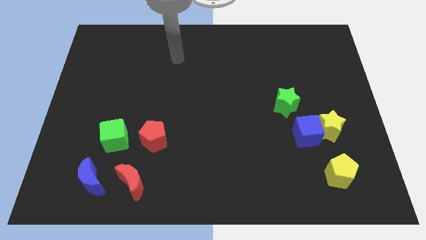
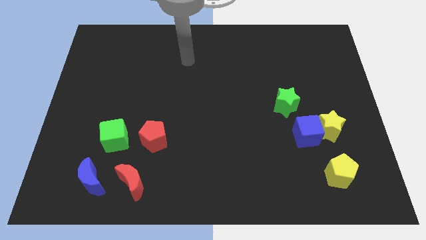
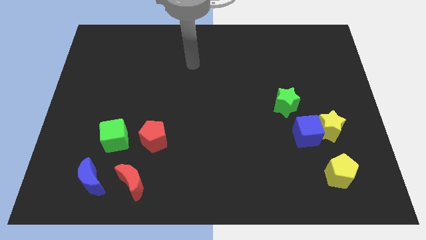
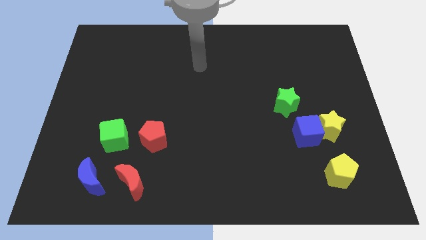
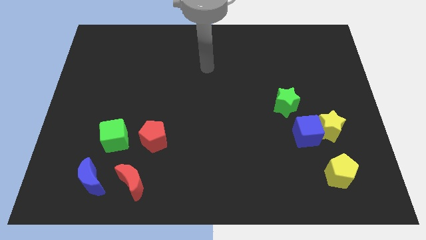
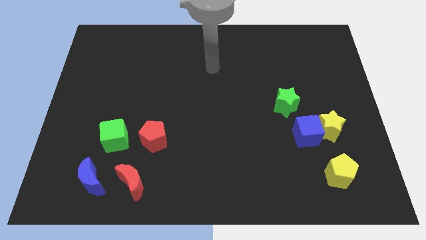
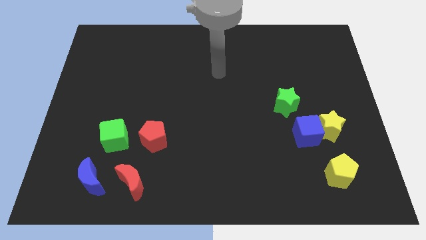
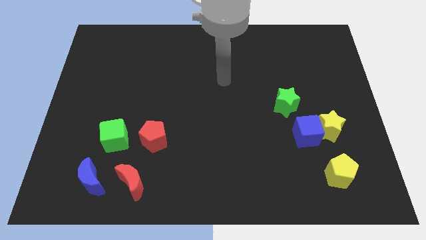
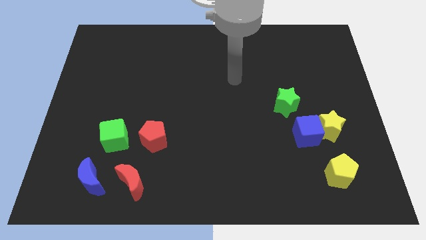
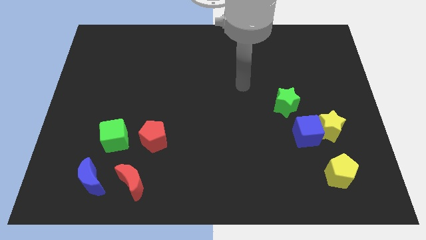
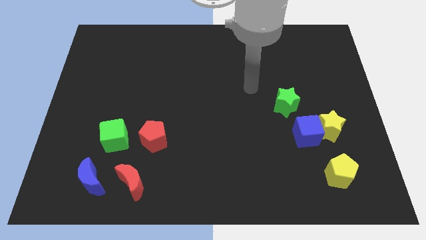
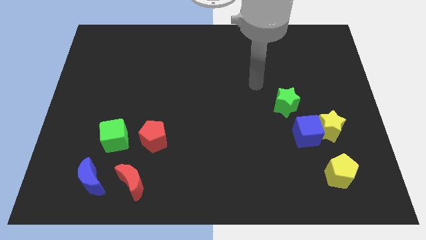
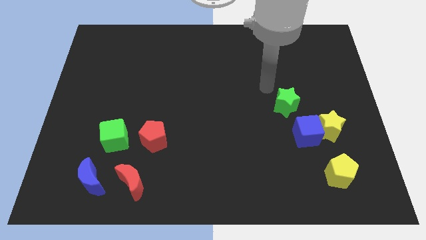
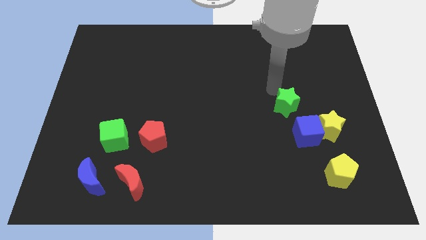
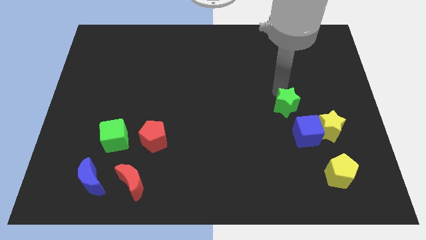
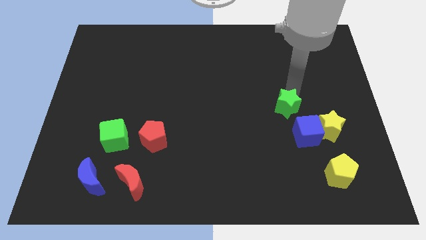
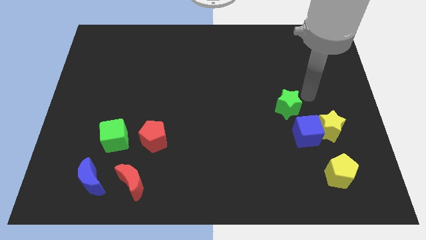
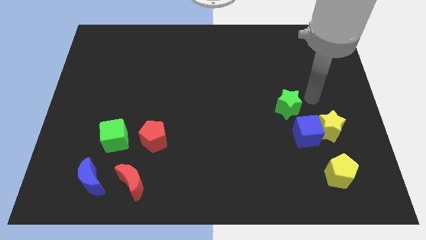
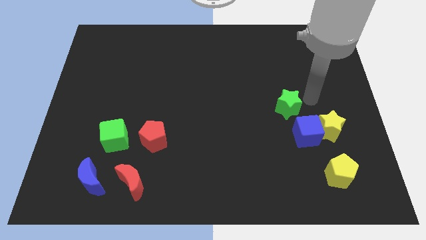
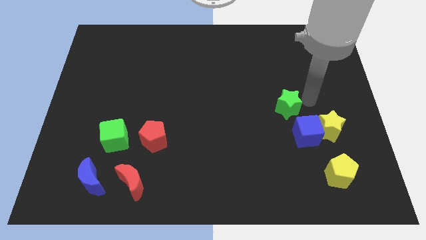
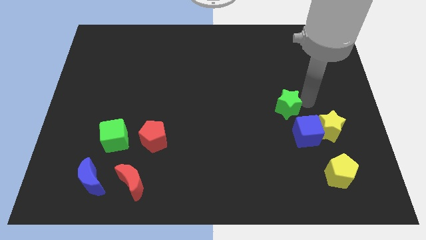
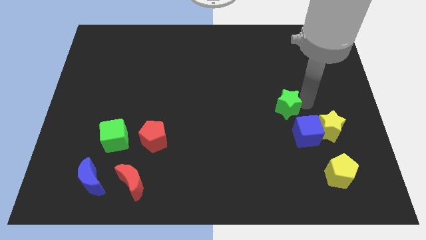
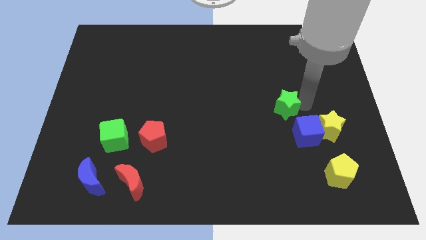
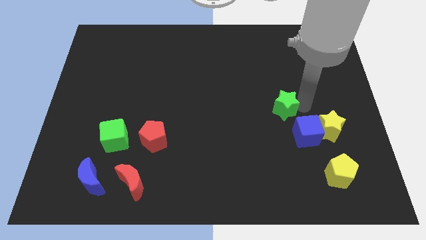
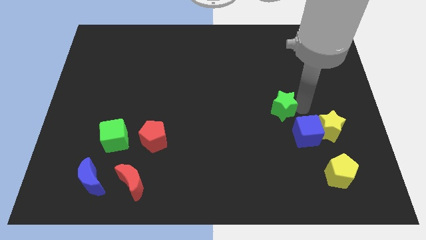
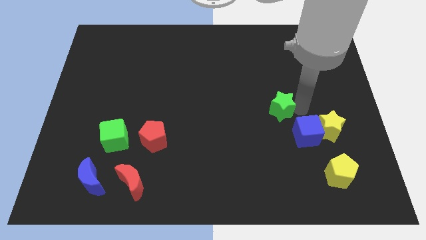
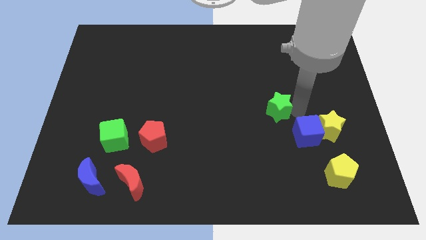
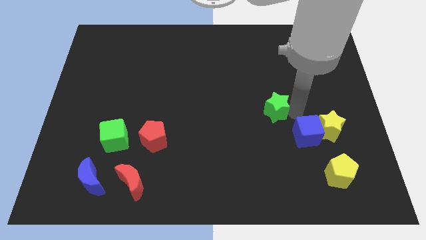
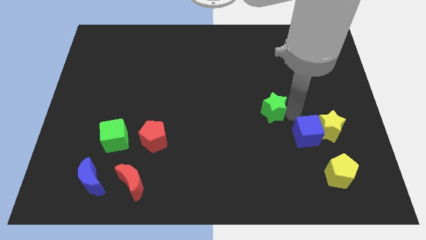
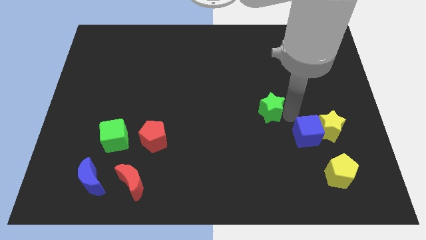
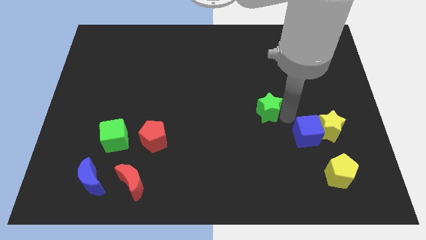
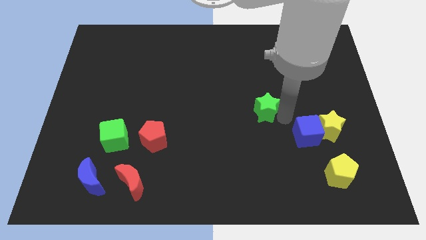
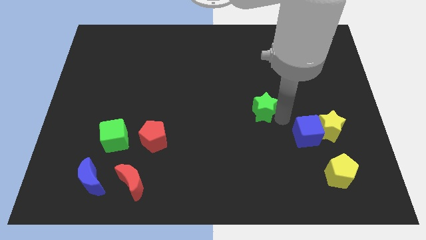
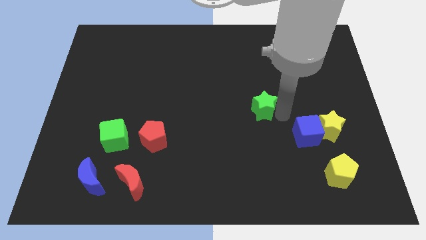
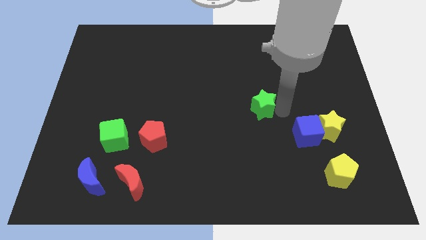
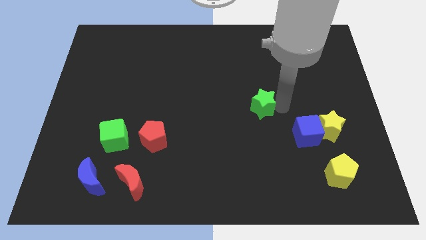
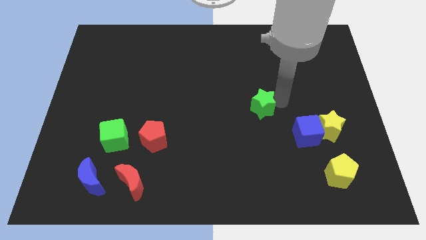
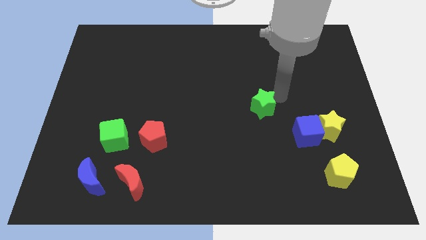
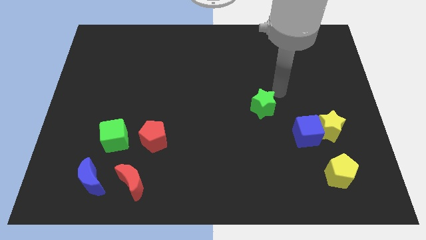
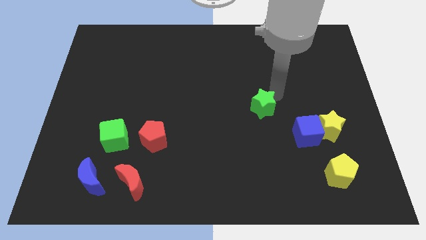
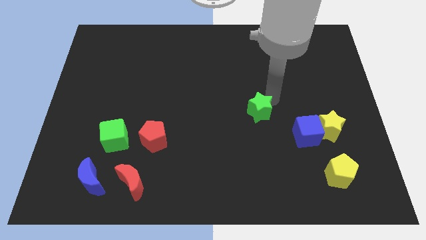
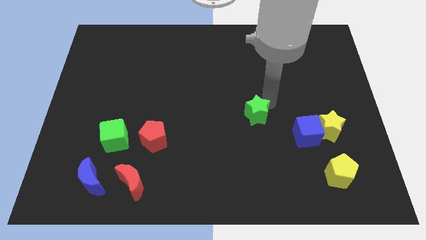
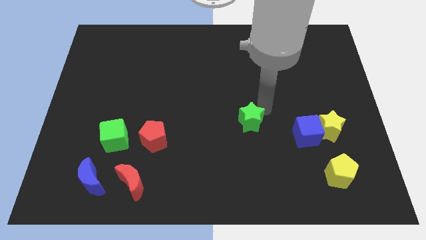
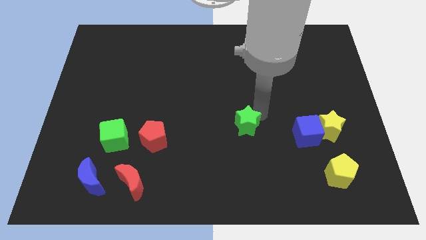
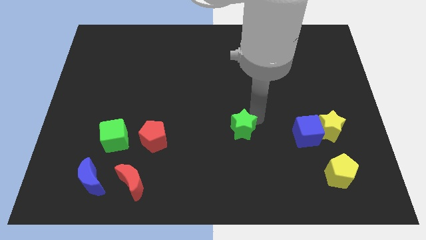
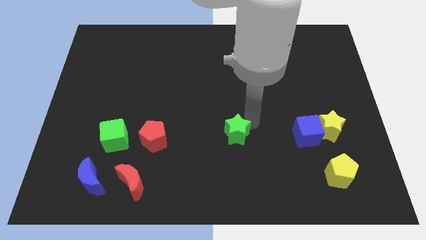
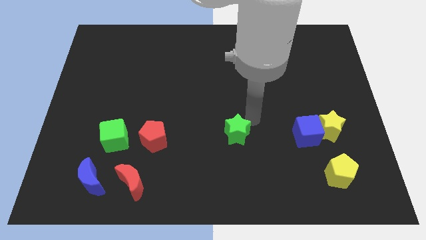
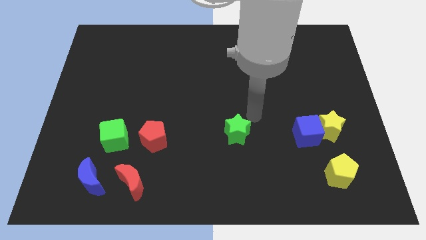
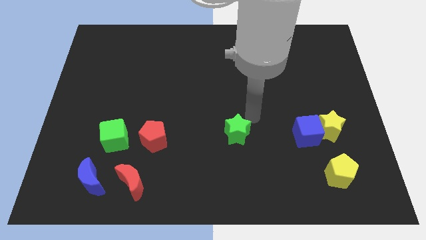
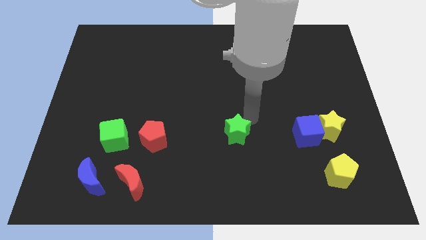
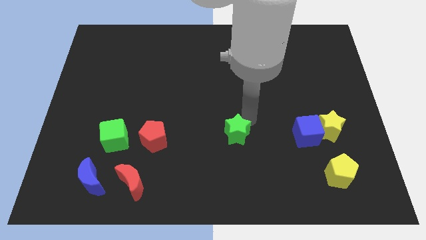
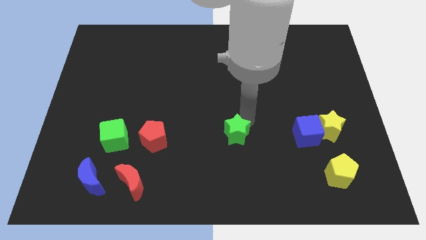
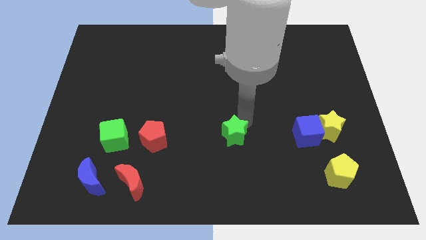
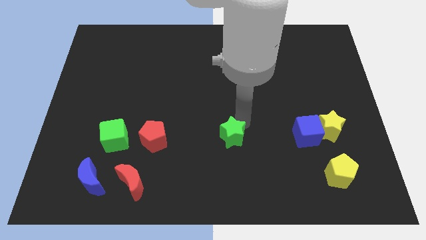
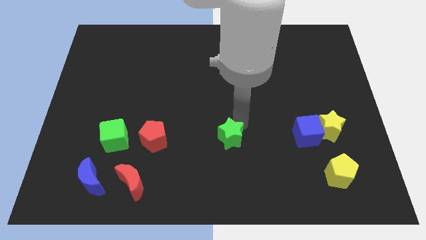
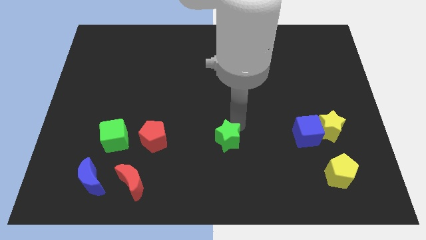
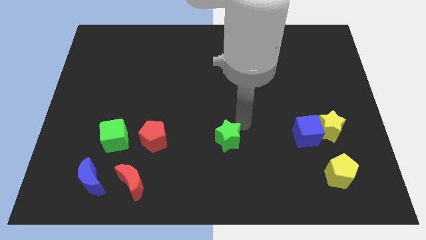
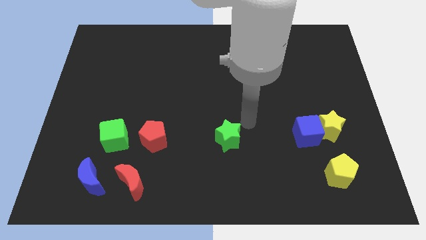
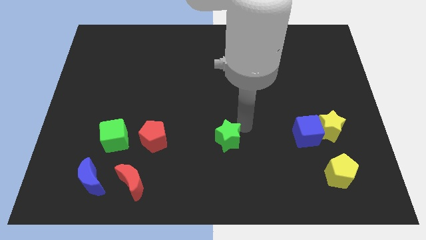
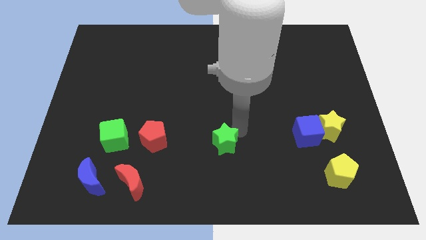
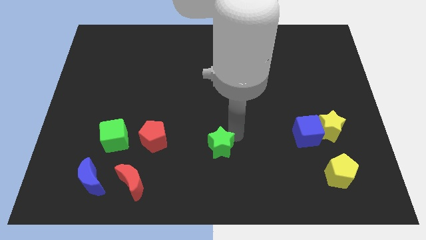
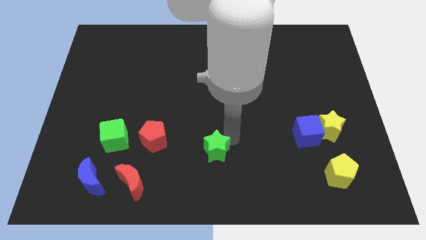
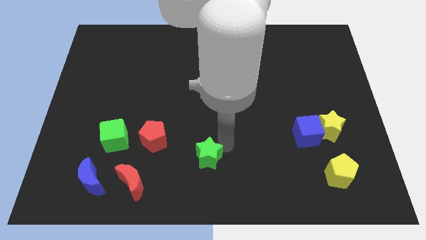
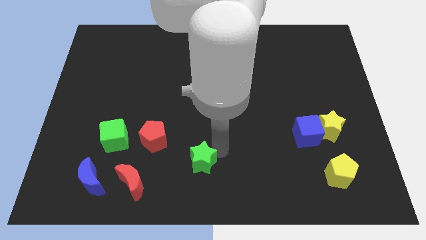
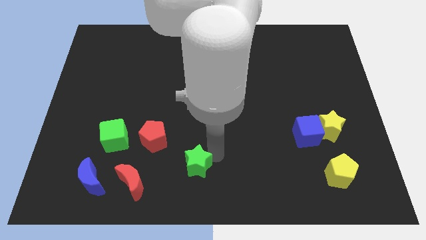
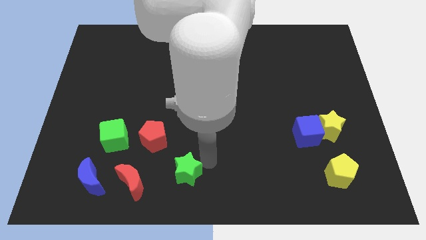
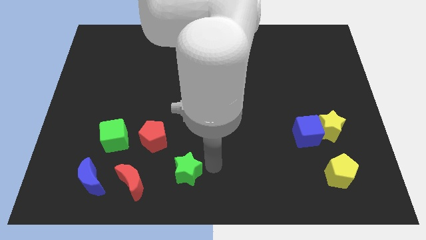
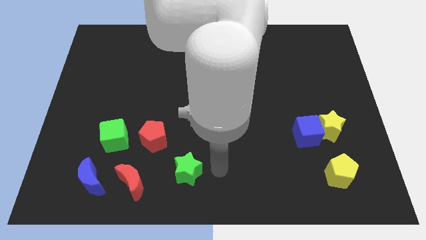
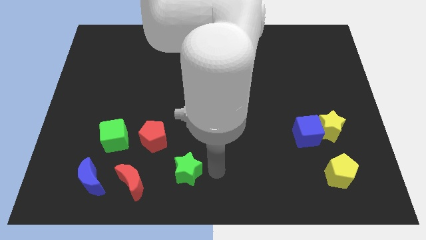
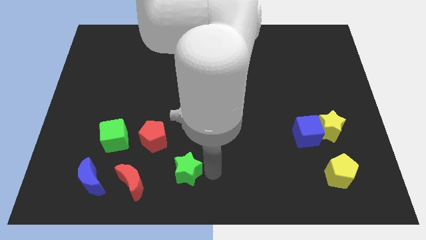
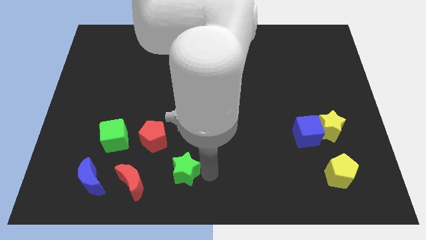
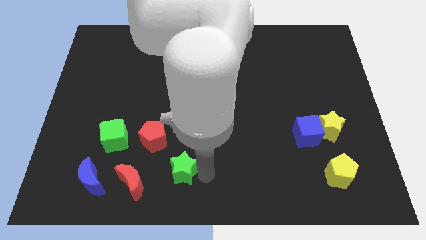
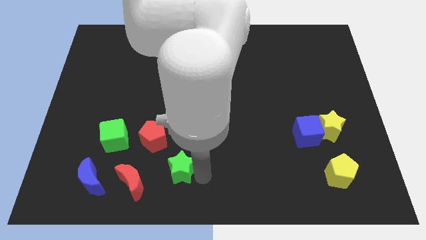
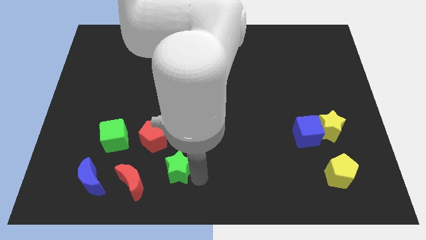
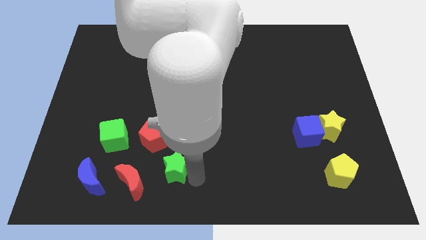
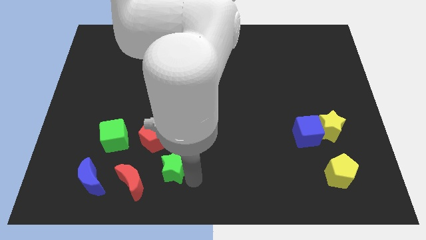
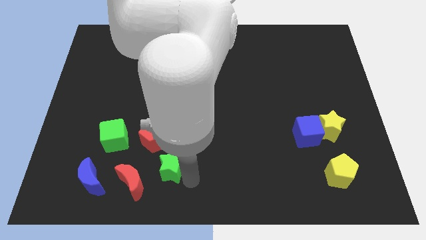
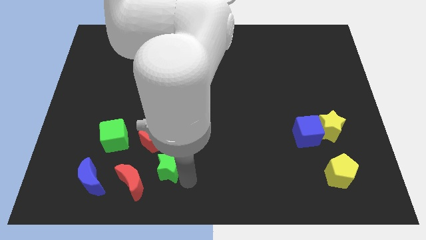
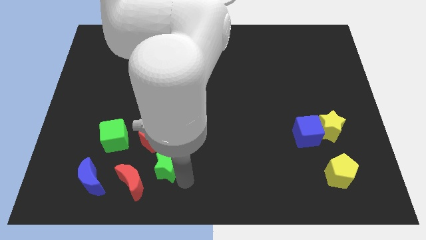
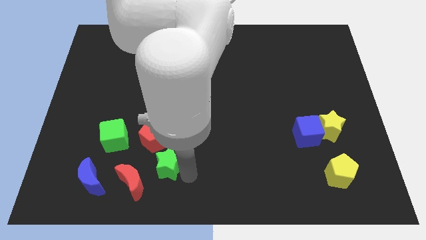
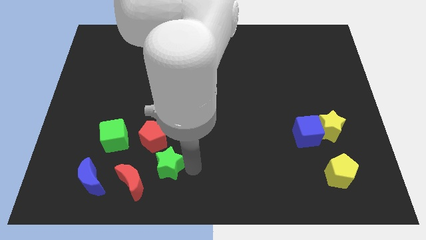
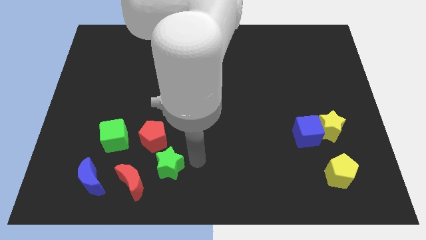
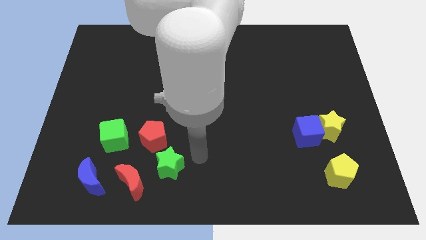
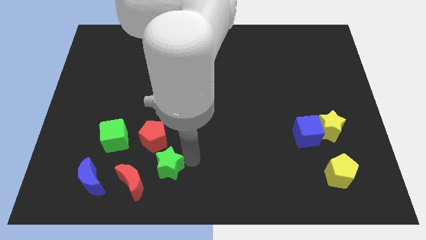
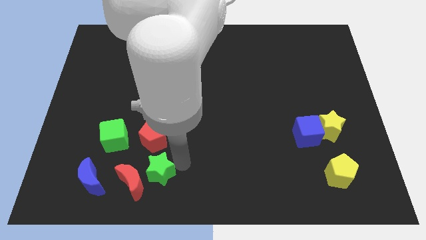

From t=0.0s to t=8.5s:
slide the green star next to the red moon

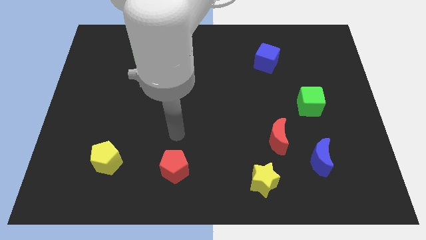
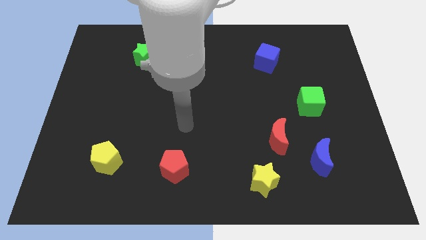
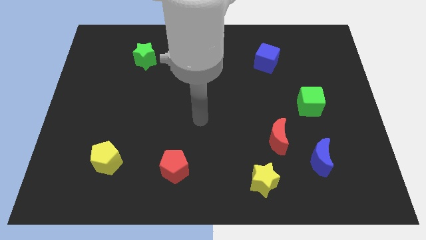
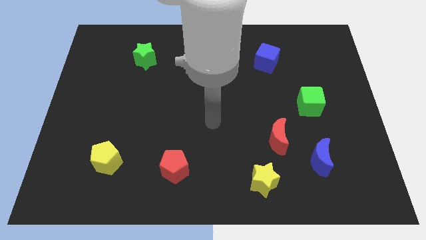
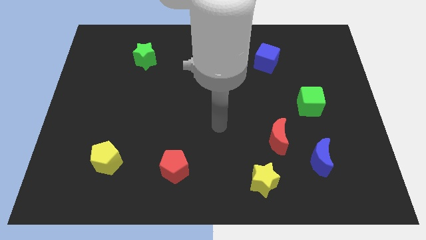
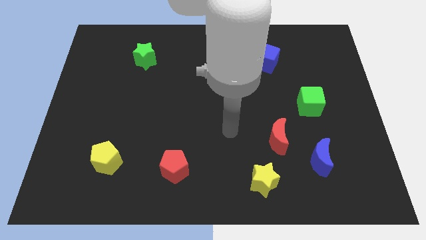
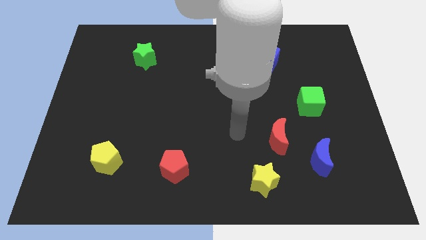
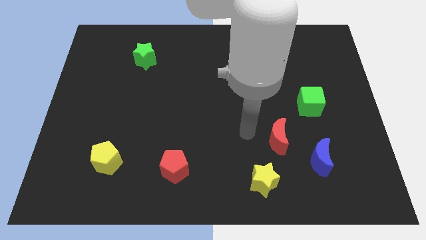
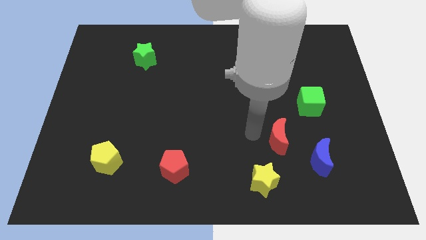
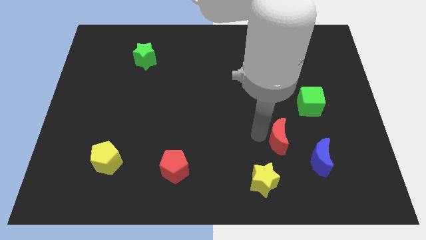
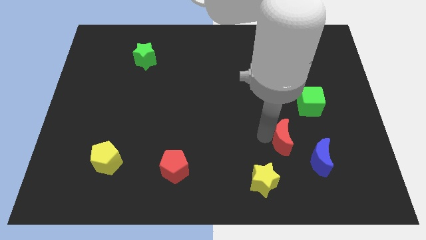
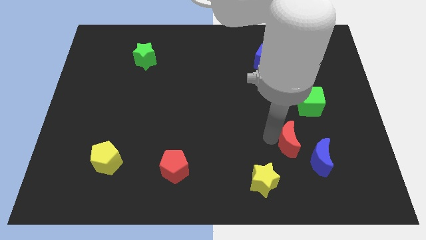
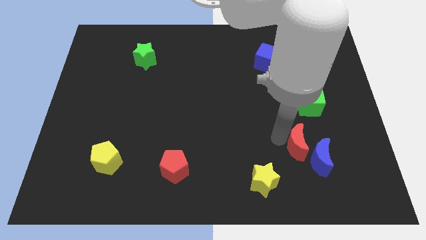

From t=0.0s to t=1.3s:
push the red moon close to the blue moon
